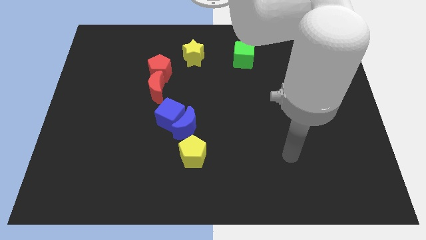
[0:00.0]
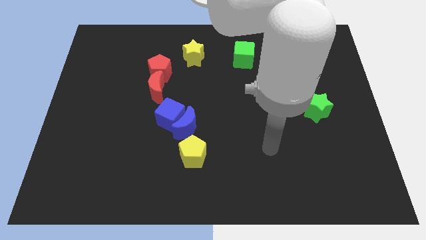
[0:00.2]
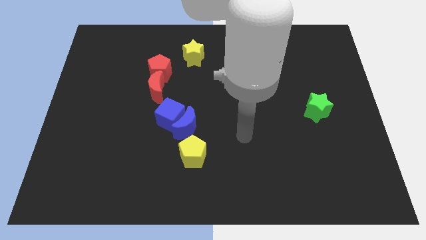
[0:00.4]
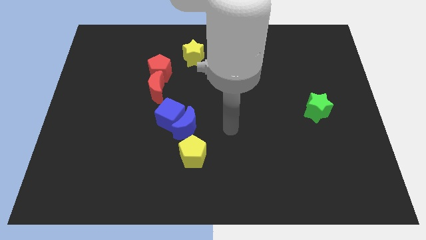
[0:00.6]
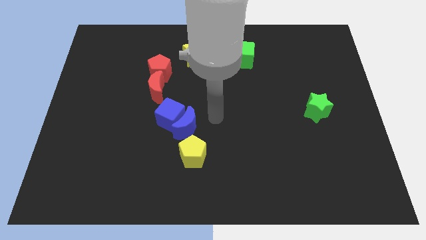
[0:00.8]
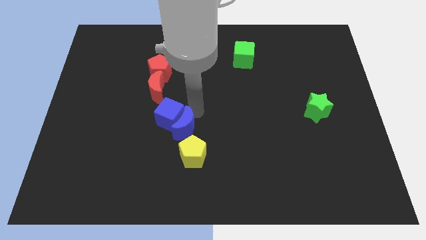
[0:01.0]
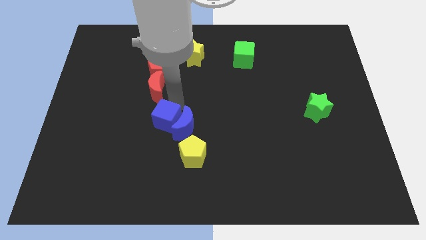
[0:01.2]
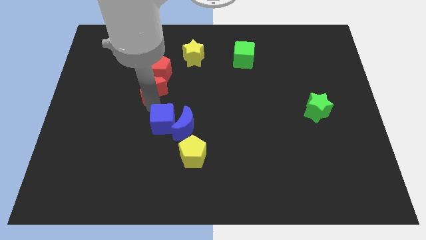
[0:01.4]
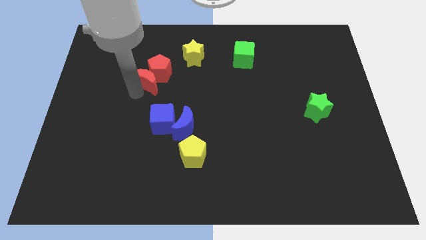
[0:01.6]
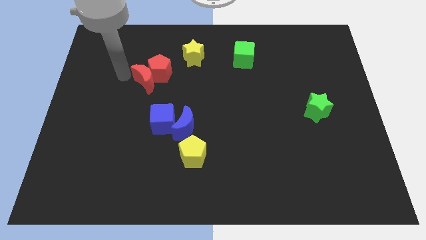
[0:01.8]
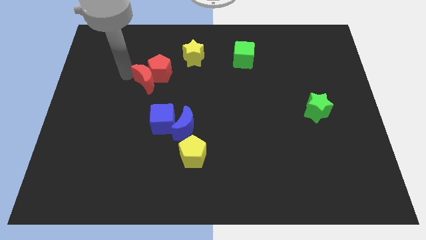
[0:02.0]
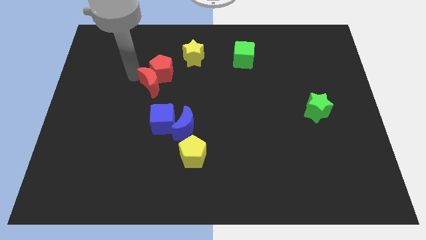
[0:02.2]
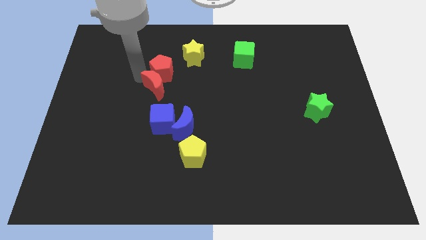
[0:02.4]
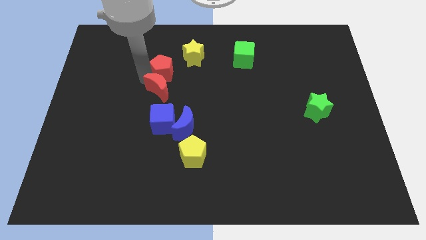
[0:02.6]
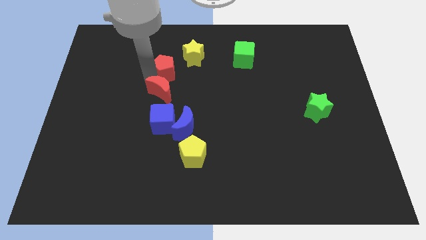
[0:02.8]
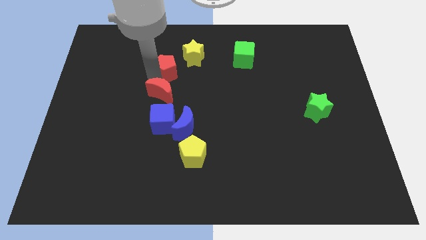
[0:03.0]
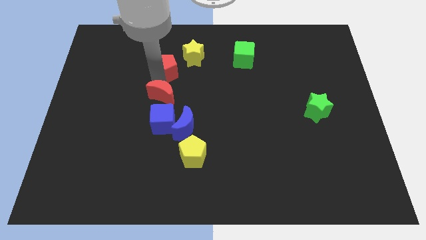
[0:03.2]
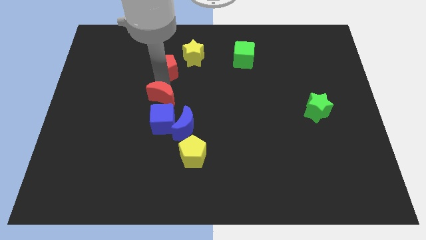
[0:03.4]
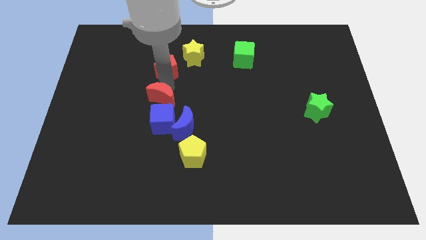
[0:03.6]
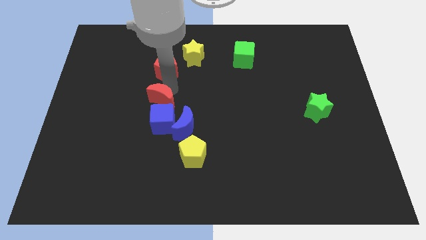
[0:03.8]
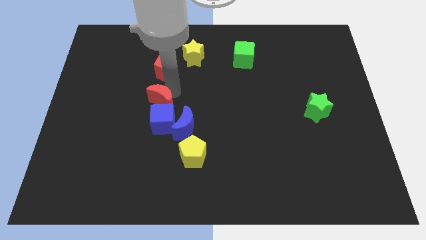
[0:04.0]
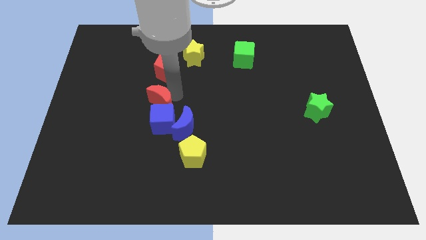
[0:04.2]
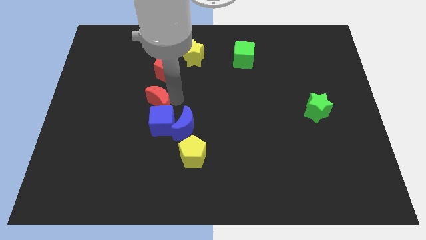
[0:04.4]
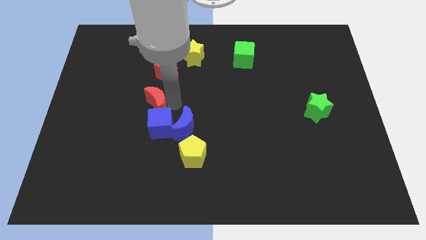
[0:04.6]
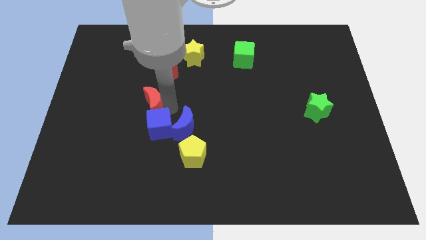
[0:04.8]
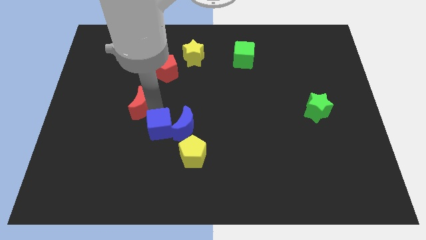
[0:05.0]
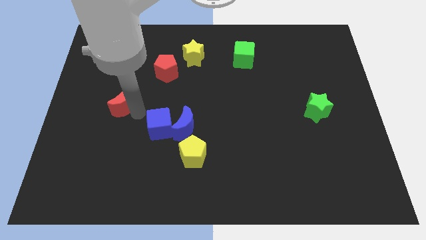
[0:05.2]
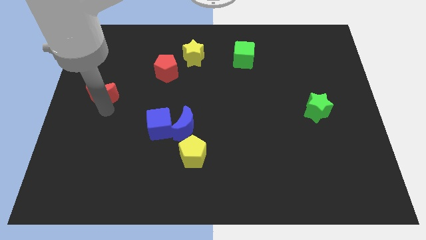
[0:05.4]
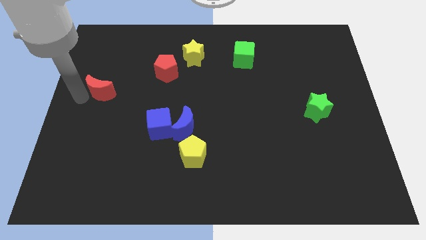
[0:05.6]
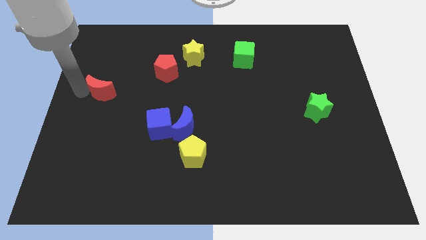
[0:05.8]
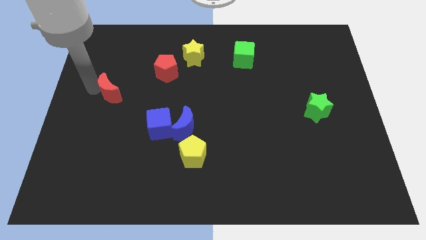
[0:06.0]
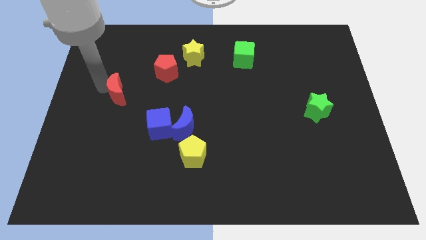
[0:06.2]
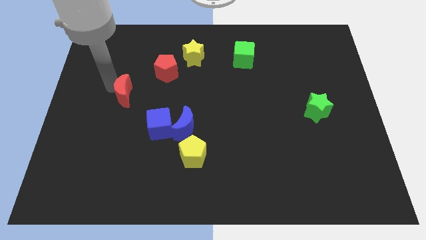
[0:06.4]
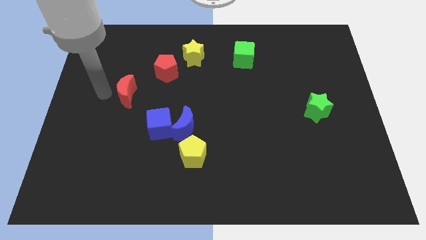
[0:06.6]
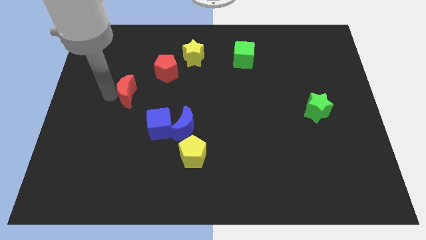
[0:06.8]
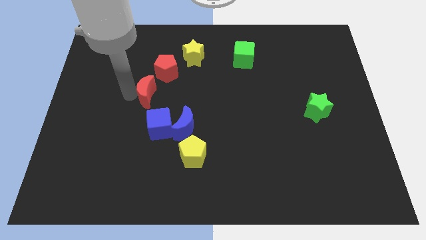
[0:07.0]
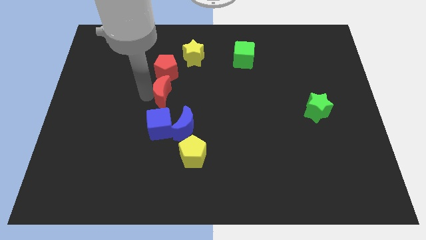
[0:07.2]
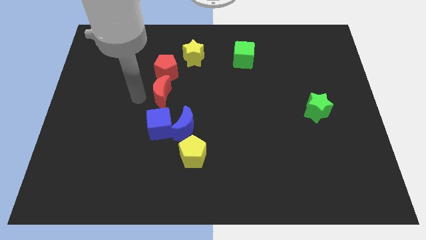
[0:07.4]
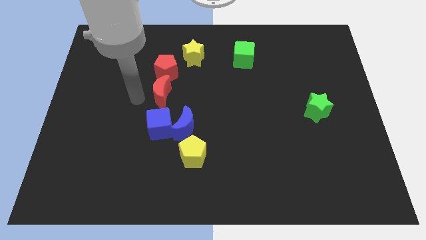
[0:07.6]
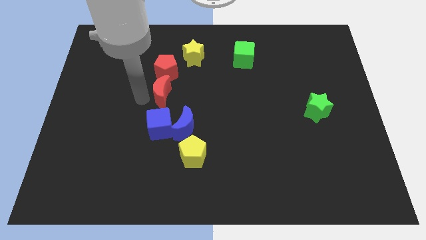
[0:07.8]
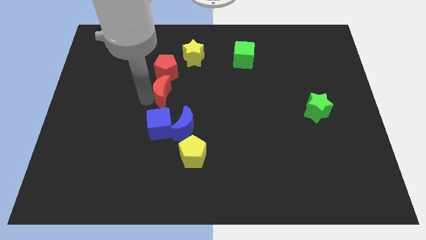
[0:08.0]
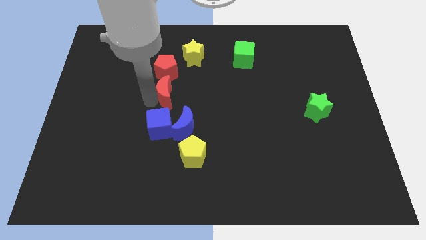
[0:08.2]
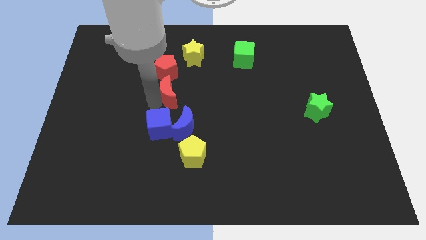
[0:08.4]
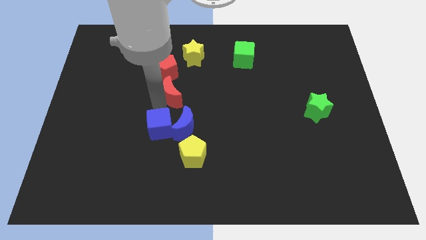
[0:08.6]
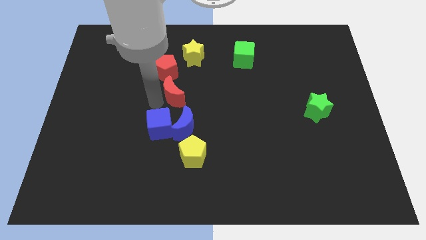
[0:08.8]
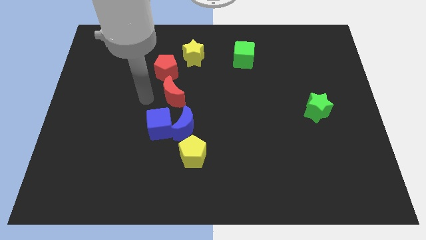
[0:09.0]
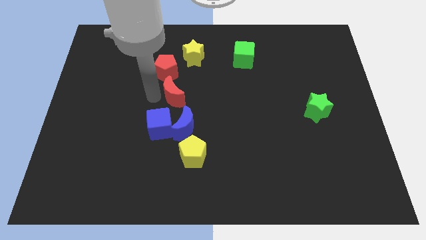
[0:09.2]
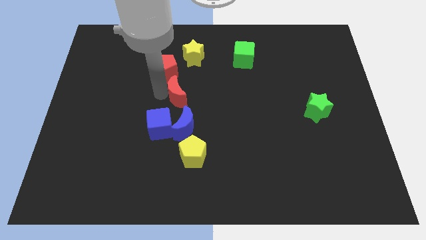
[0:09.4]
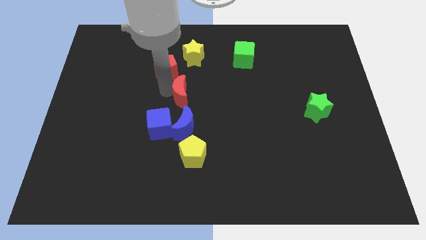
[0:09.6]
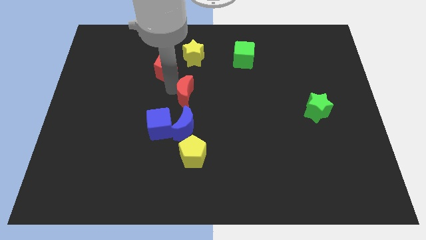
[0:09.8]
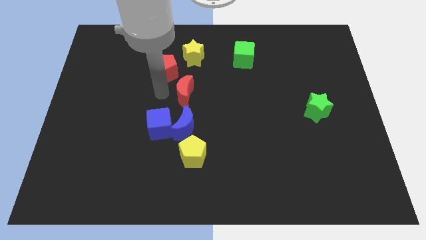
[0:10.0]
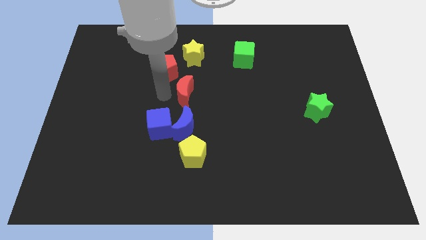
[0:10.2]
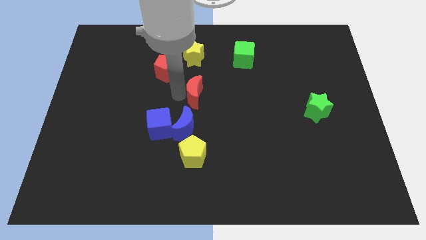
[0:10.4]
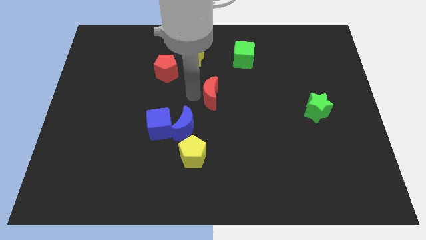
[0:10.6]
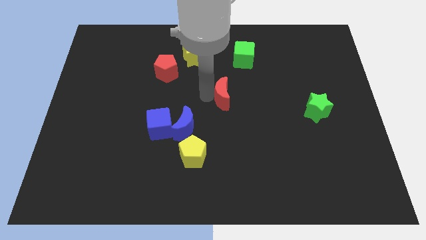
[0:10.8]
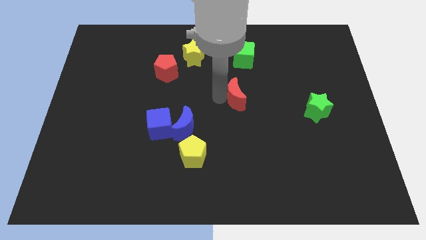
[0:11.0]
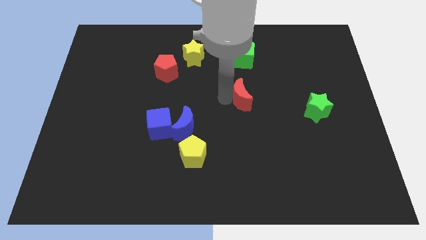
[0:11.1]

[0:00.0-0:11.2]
move the red moon to the right

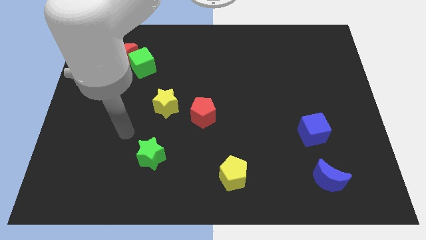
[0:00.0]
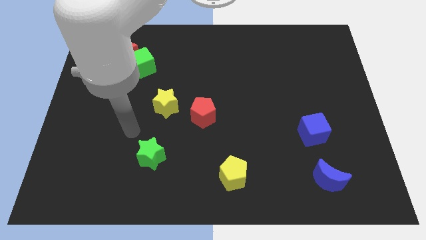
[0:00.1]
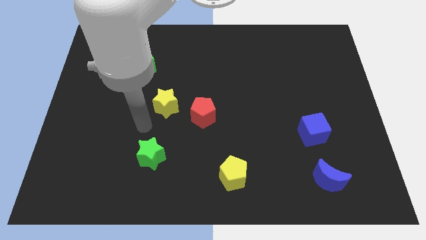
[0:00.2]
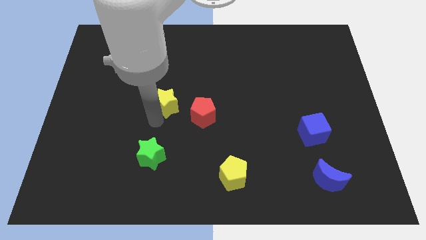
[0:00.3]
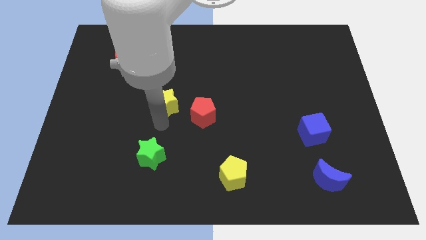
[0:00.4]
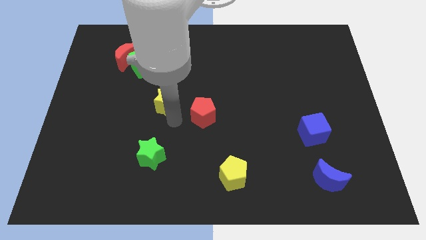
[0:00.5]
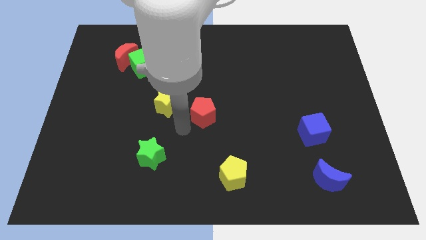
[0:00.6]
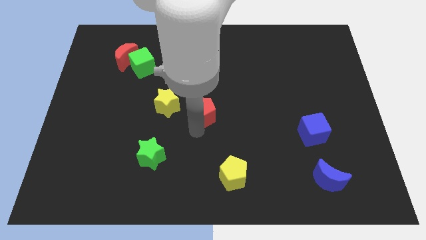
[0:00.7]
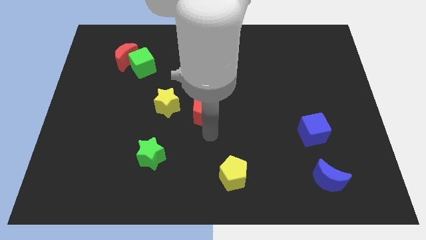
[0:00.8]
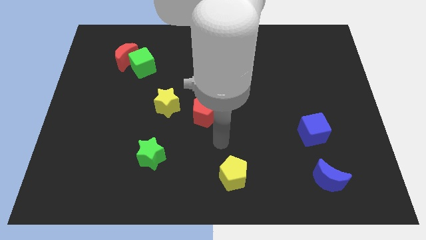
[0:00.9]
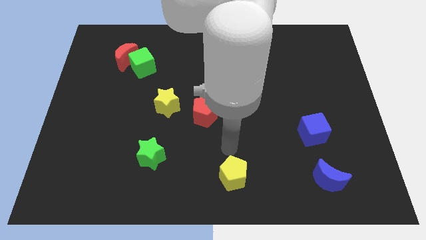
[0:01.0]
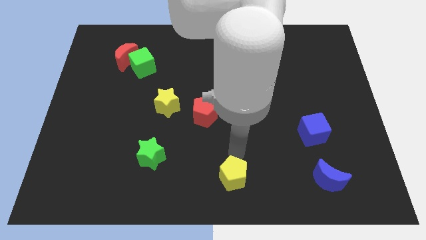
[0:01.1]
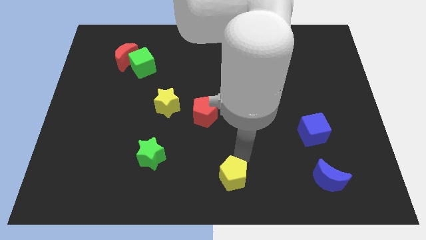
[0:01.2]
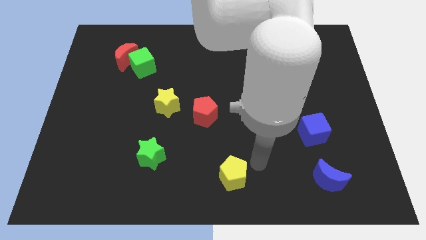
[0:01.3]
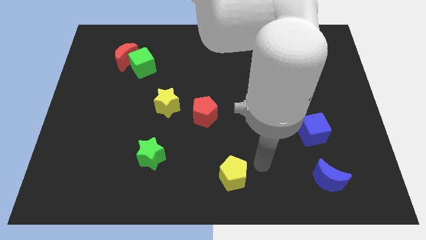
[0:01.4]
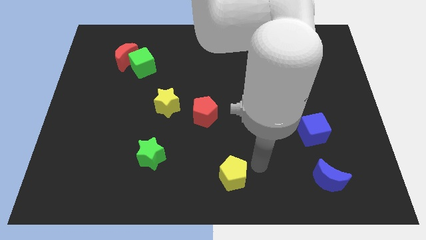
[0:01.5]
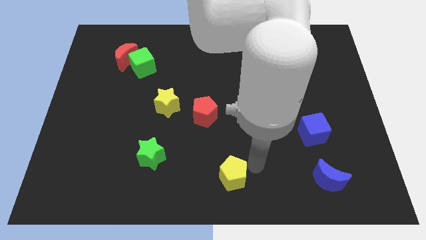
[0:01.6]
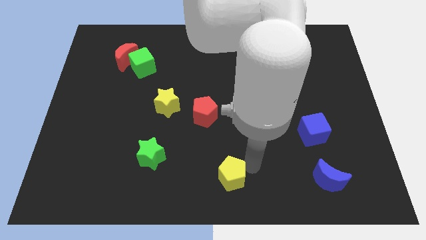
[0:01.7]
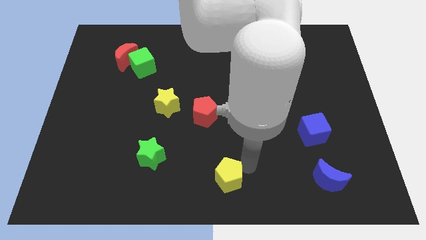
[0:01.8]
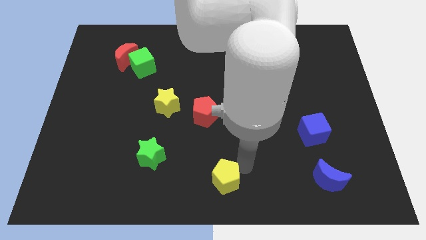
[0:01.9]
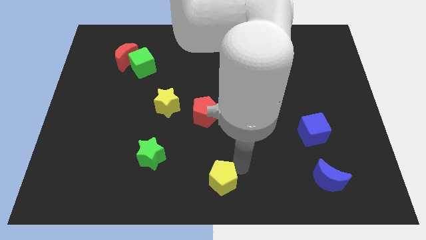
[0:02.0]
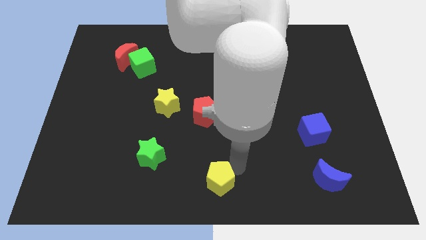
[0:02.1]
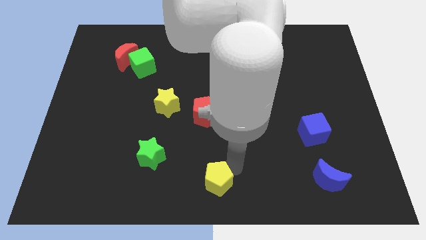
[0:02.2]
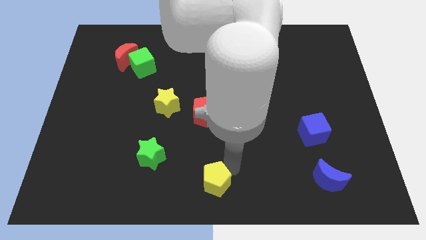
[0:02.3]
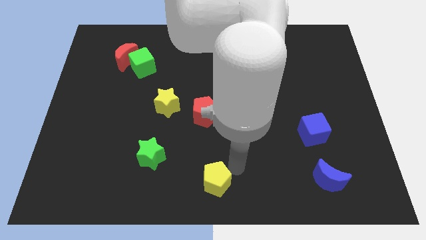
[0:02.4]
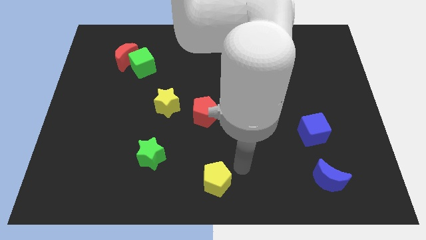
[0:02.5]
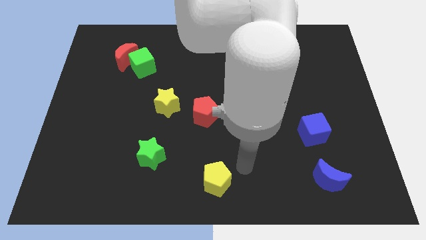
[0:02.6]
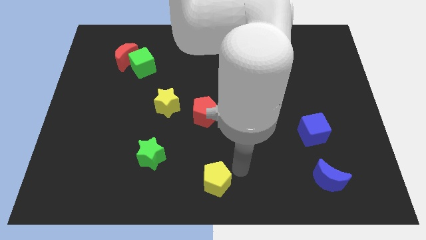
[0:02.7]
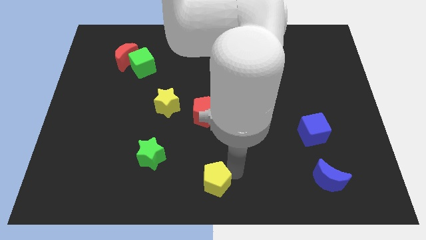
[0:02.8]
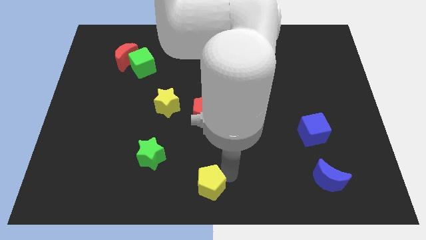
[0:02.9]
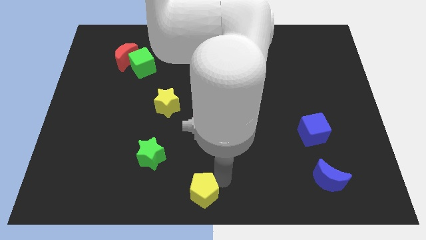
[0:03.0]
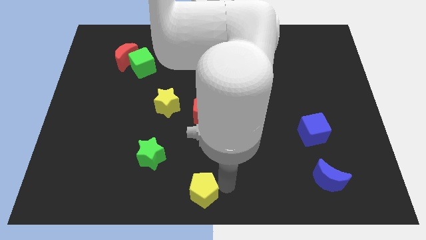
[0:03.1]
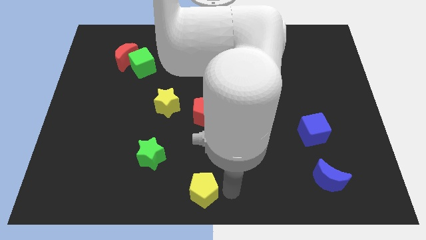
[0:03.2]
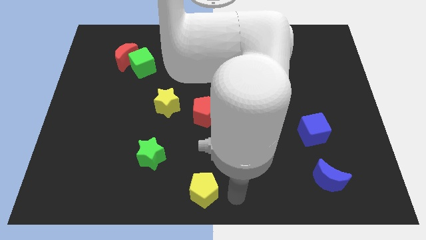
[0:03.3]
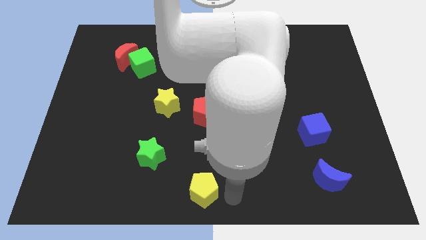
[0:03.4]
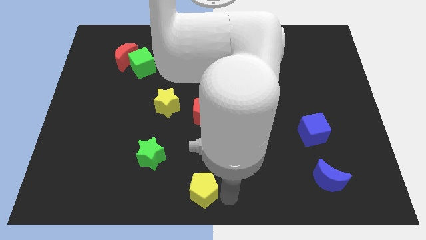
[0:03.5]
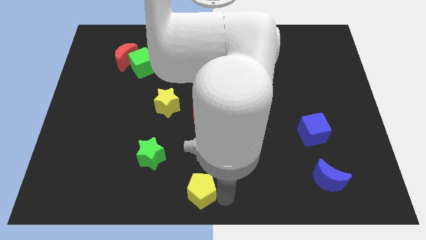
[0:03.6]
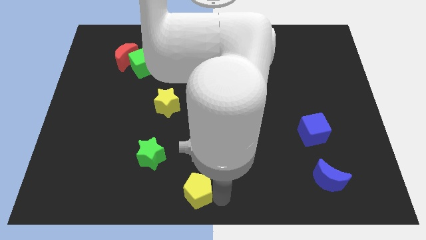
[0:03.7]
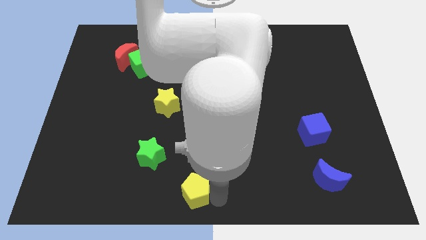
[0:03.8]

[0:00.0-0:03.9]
push the yellow pentagon to the left somewhat
